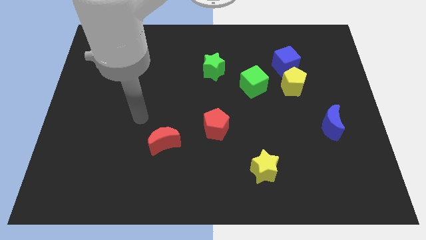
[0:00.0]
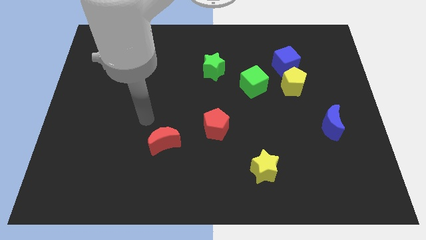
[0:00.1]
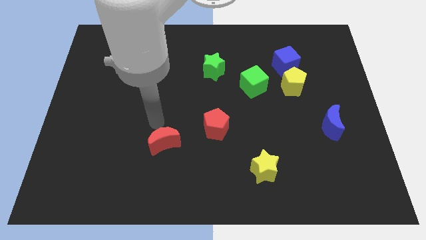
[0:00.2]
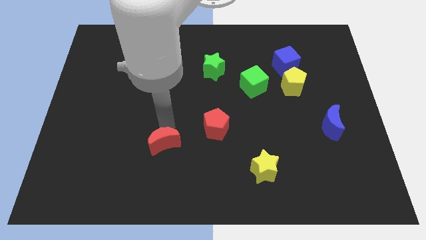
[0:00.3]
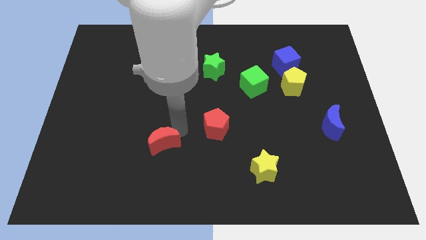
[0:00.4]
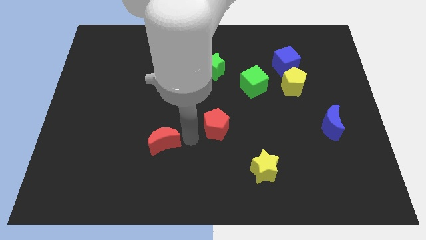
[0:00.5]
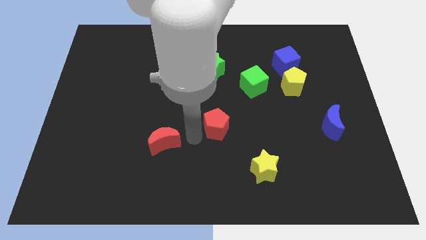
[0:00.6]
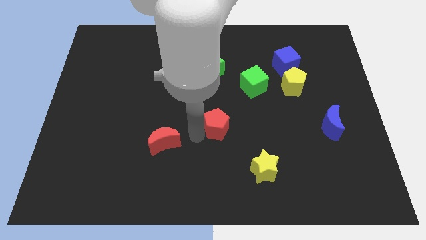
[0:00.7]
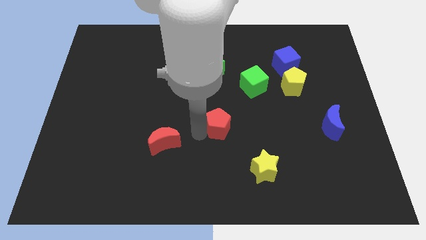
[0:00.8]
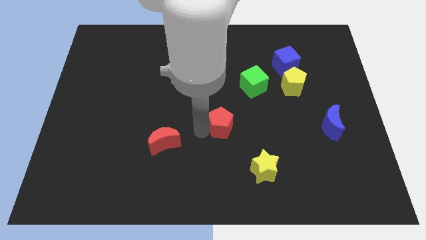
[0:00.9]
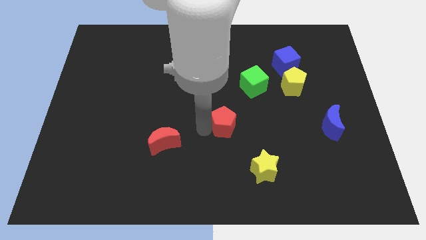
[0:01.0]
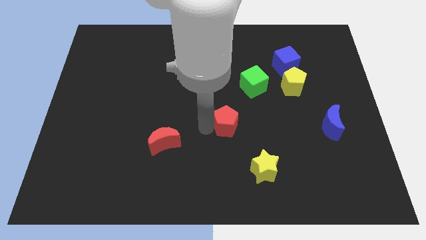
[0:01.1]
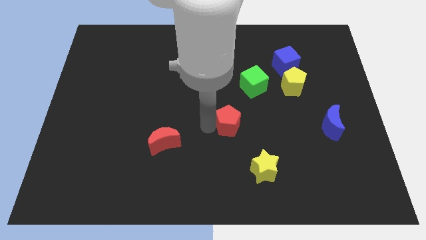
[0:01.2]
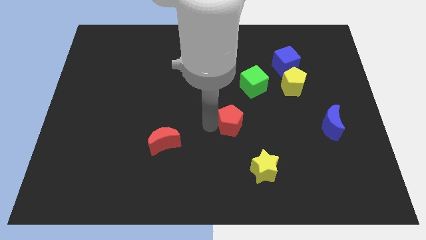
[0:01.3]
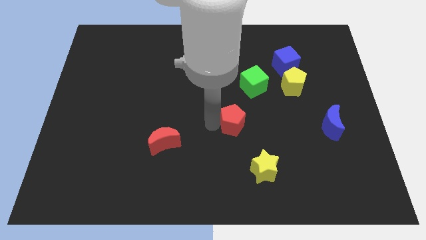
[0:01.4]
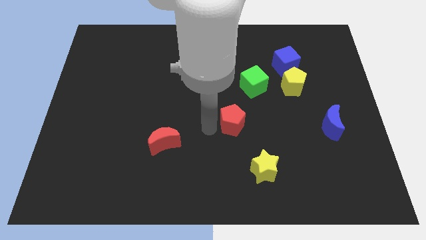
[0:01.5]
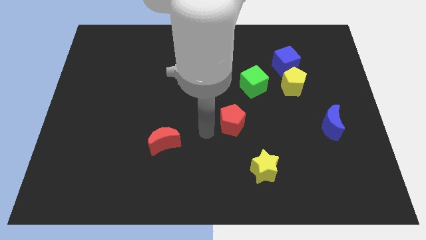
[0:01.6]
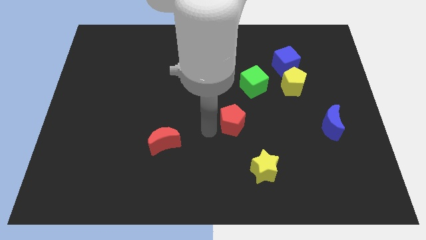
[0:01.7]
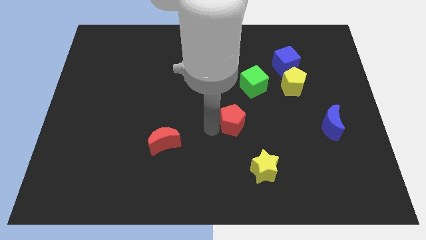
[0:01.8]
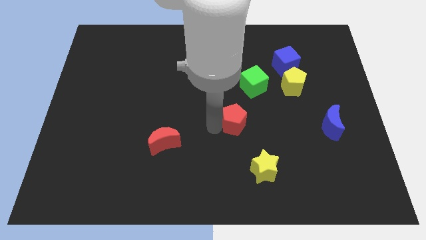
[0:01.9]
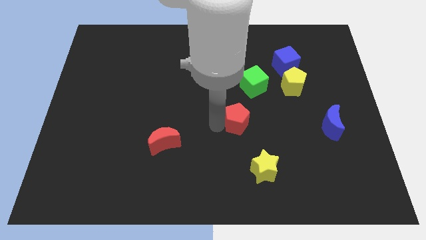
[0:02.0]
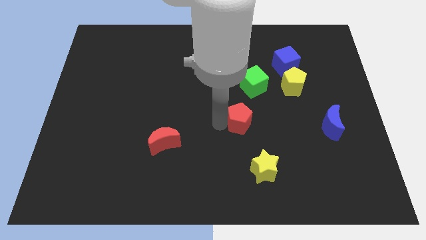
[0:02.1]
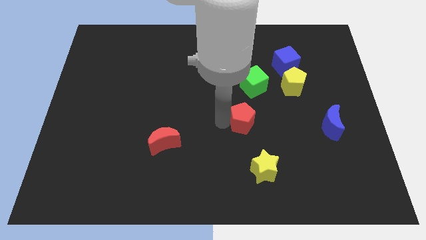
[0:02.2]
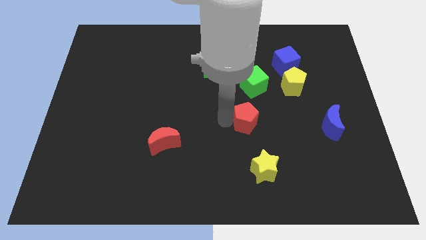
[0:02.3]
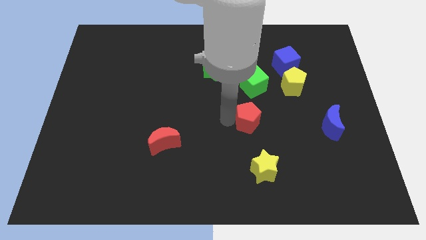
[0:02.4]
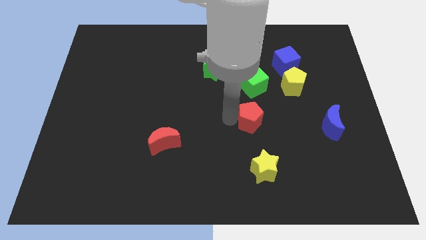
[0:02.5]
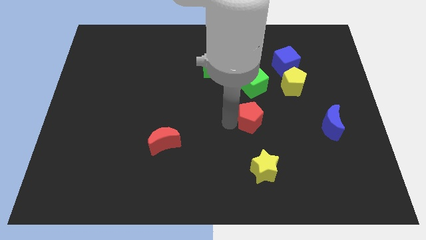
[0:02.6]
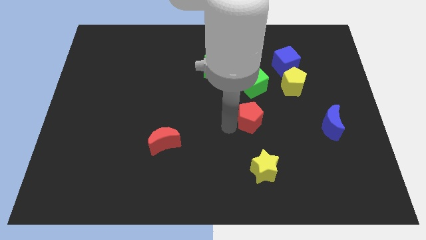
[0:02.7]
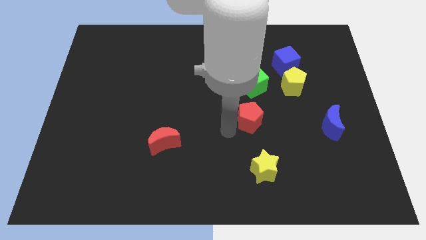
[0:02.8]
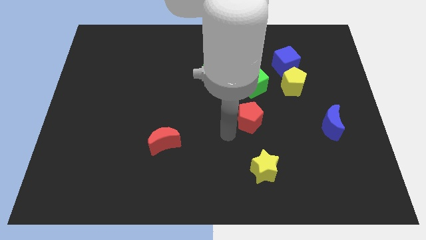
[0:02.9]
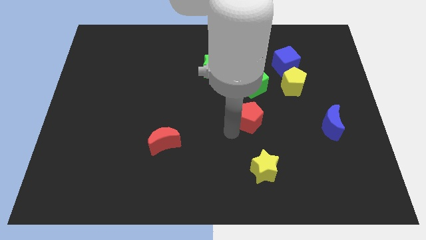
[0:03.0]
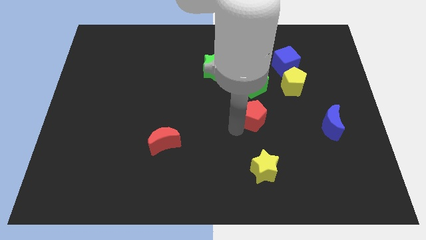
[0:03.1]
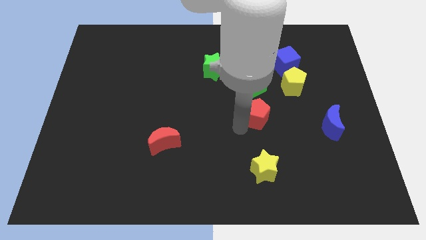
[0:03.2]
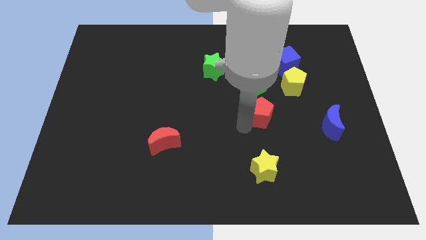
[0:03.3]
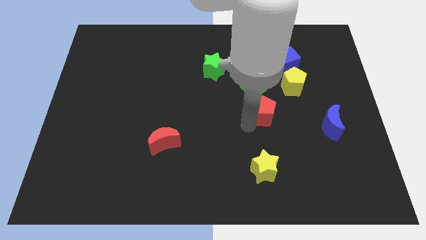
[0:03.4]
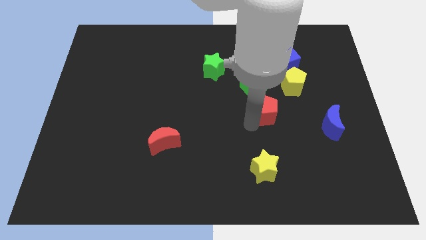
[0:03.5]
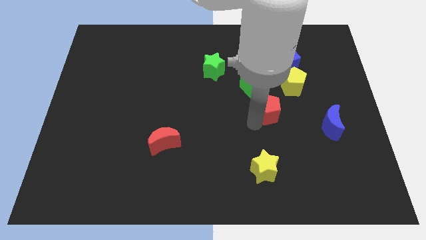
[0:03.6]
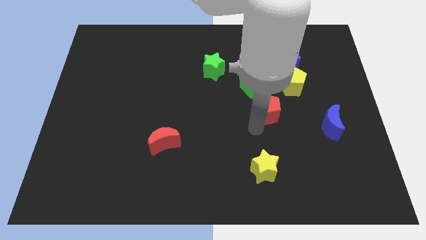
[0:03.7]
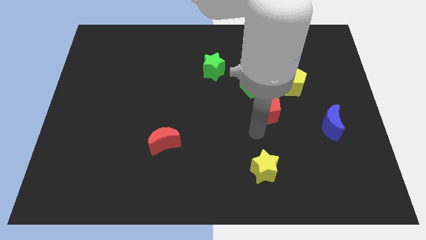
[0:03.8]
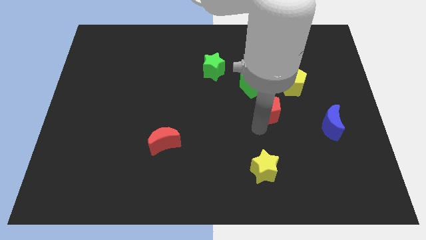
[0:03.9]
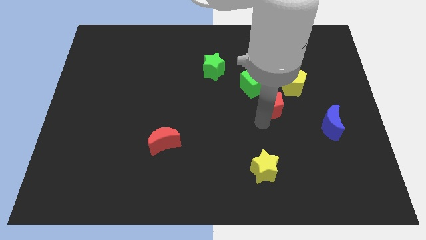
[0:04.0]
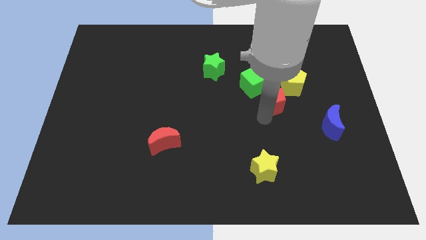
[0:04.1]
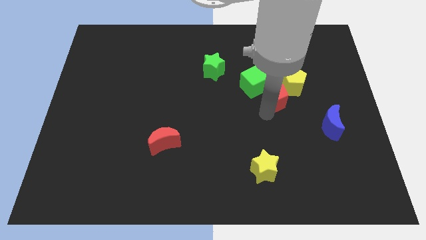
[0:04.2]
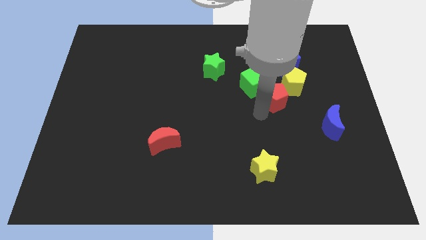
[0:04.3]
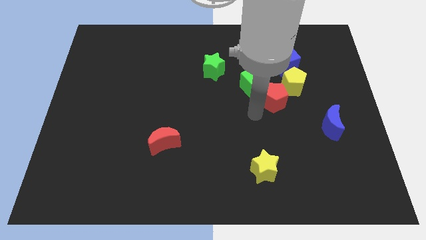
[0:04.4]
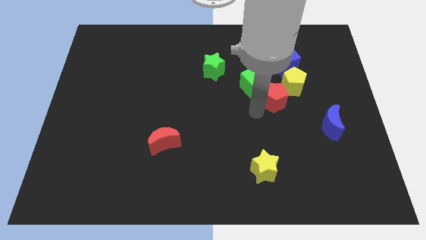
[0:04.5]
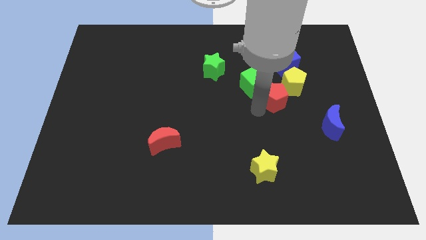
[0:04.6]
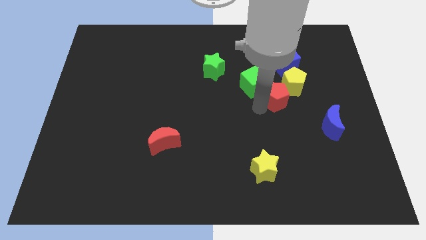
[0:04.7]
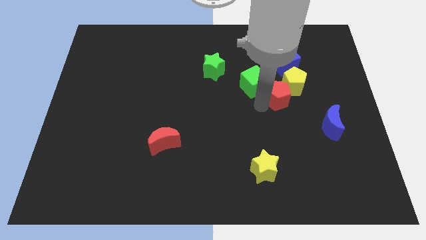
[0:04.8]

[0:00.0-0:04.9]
slide the red pentagon close to the yellow pentagon

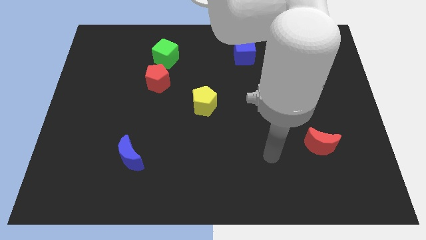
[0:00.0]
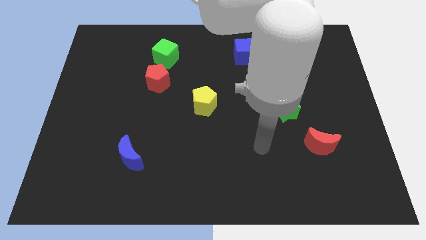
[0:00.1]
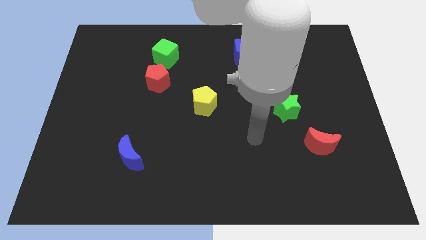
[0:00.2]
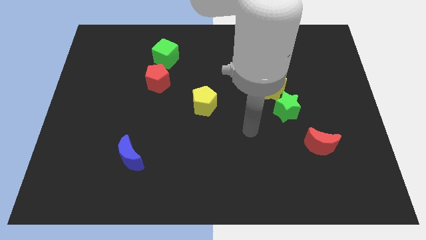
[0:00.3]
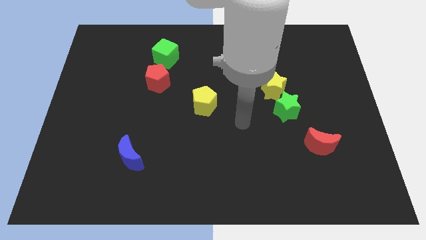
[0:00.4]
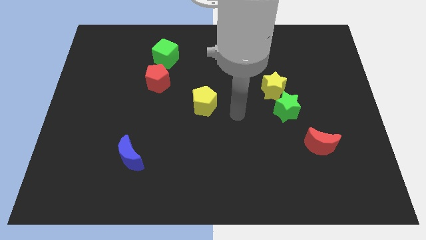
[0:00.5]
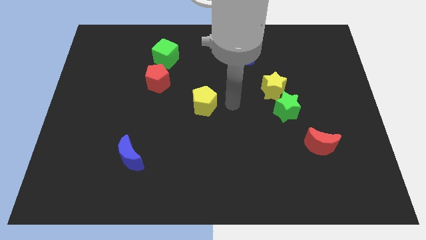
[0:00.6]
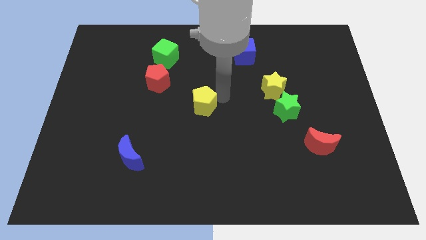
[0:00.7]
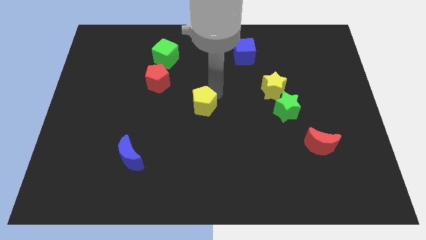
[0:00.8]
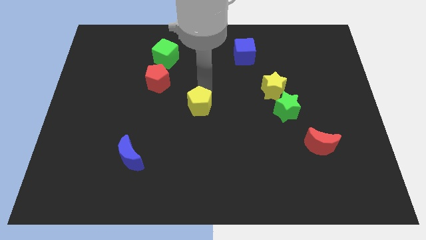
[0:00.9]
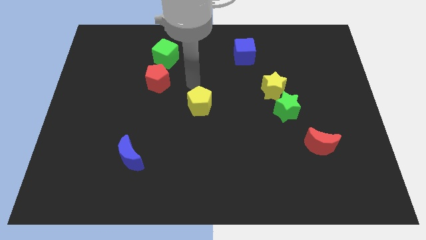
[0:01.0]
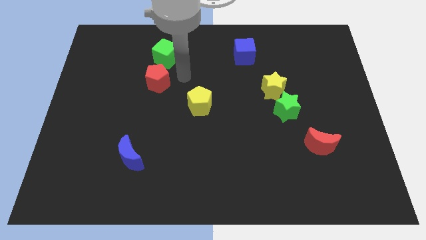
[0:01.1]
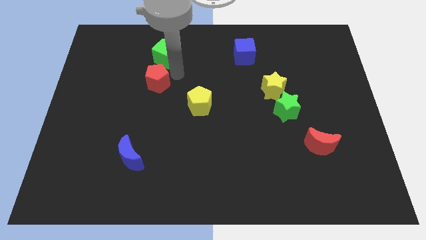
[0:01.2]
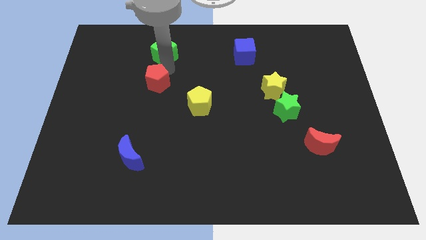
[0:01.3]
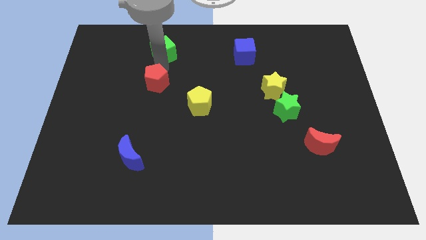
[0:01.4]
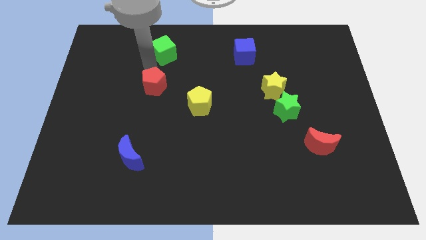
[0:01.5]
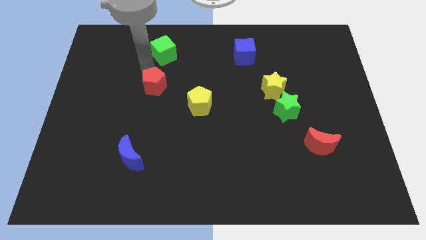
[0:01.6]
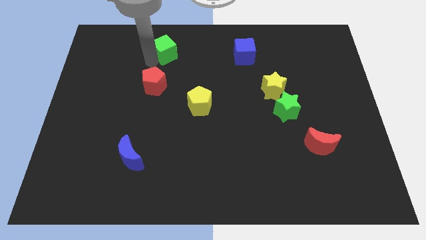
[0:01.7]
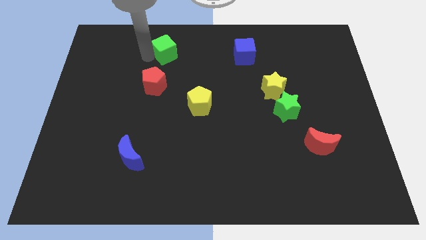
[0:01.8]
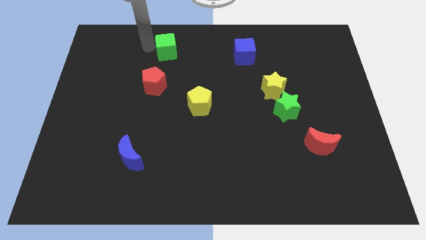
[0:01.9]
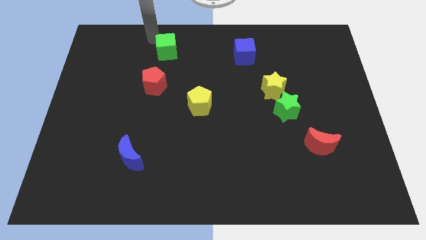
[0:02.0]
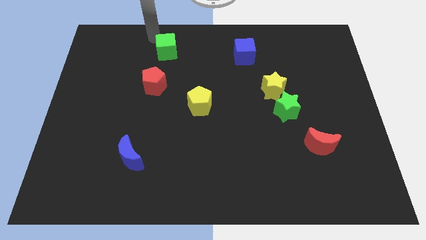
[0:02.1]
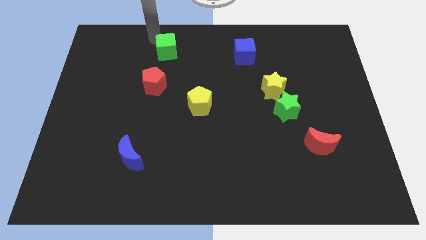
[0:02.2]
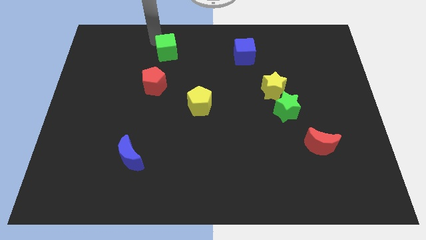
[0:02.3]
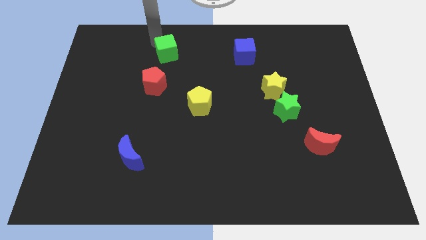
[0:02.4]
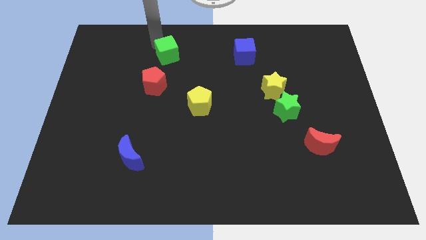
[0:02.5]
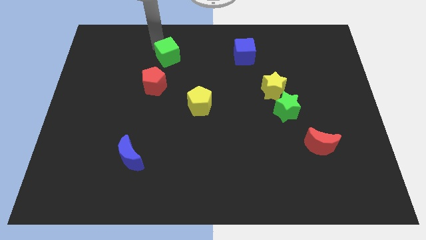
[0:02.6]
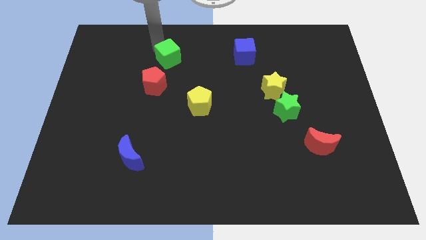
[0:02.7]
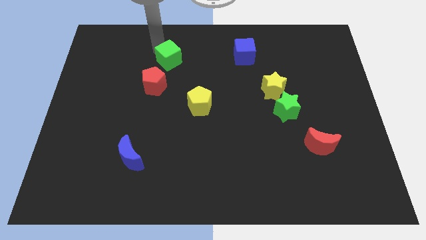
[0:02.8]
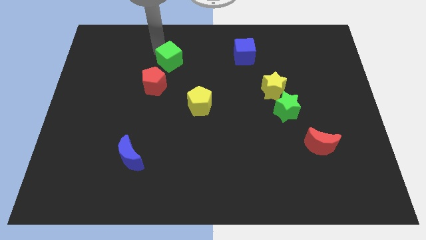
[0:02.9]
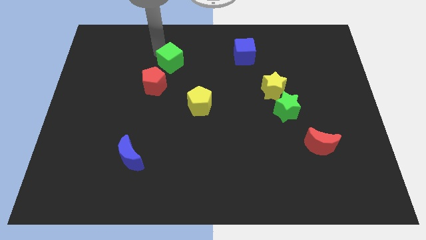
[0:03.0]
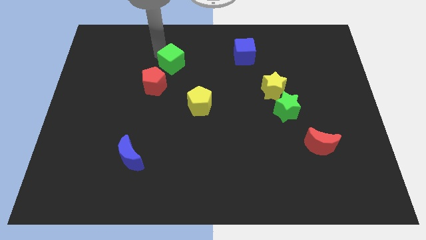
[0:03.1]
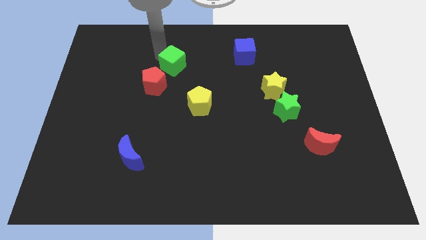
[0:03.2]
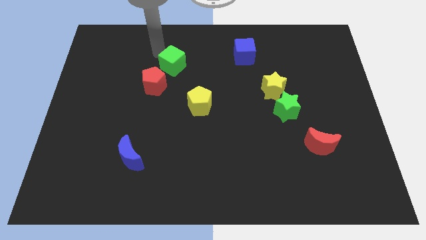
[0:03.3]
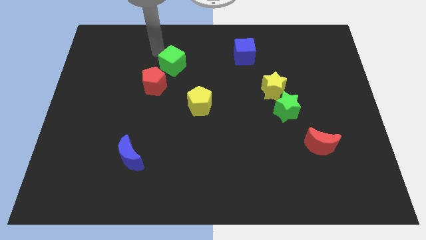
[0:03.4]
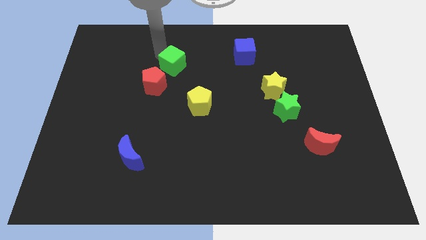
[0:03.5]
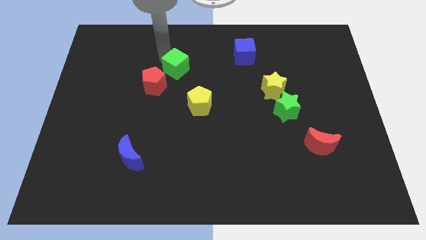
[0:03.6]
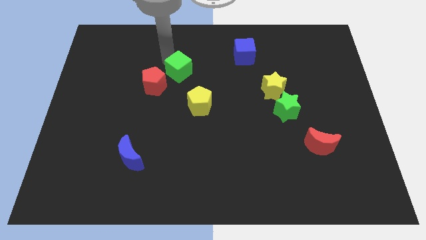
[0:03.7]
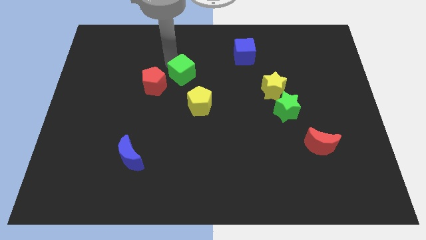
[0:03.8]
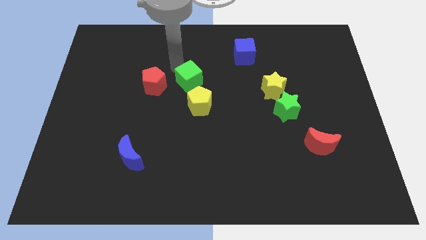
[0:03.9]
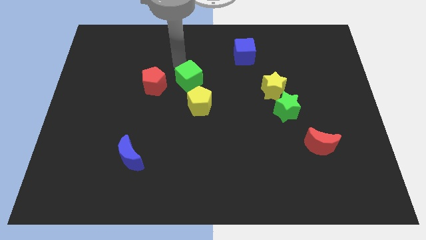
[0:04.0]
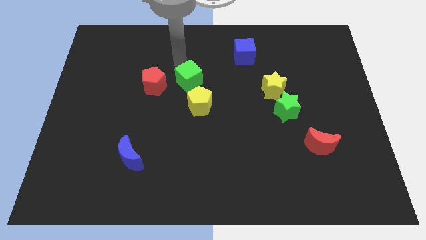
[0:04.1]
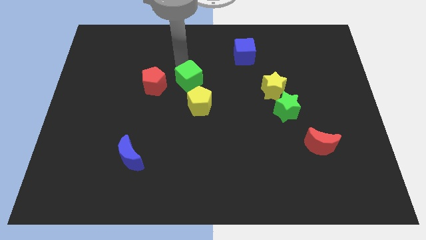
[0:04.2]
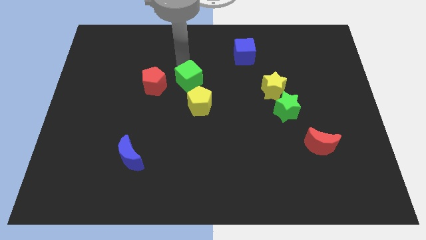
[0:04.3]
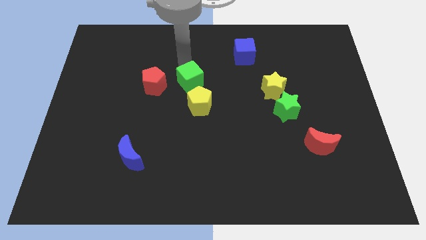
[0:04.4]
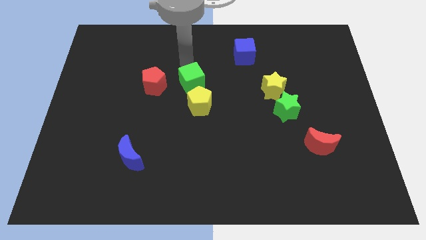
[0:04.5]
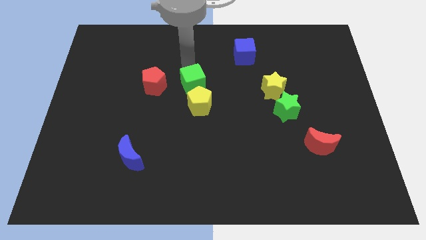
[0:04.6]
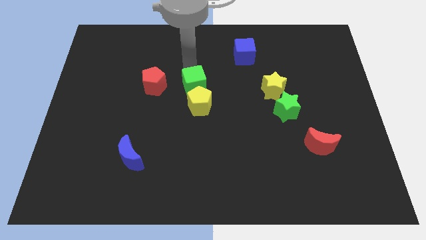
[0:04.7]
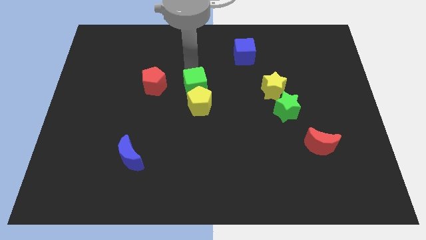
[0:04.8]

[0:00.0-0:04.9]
push the green cube to the yellow pentagon
